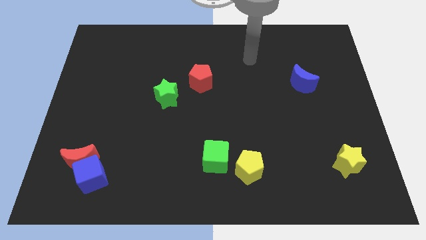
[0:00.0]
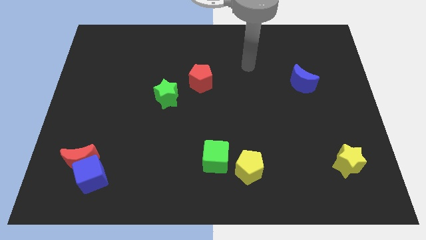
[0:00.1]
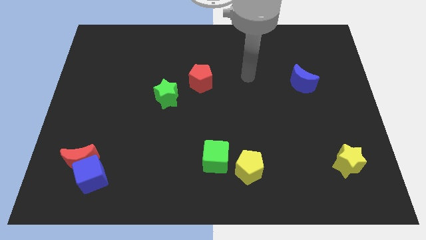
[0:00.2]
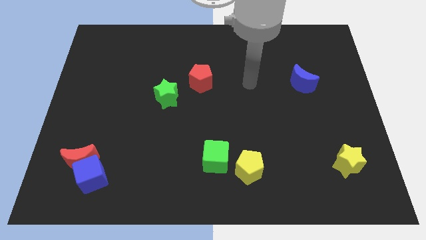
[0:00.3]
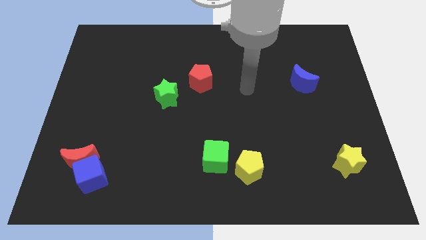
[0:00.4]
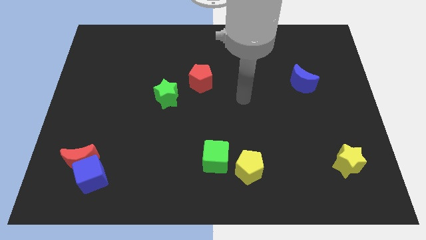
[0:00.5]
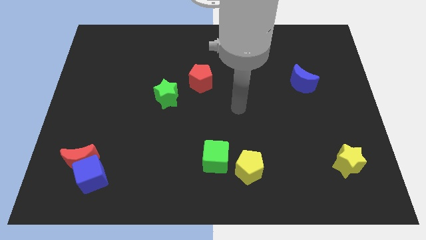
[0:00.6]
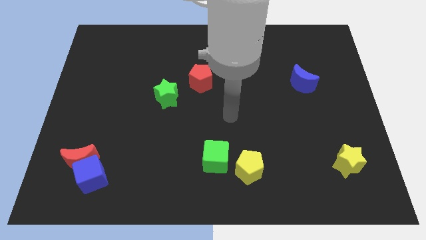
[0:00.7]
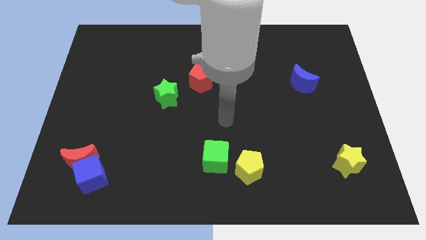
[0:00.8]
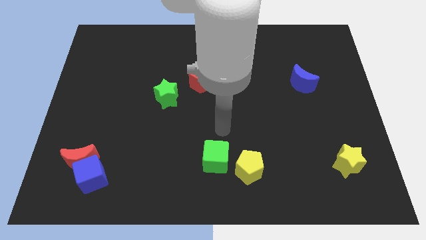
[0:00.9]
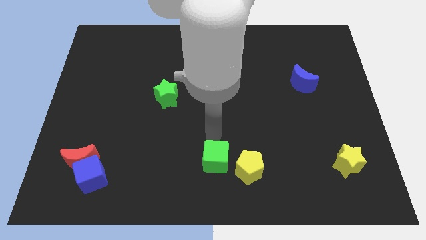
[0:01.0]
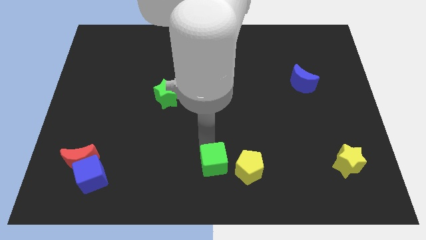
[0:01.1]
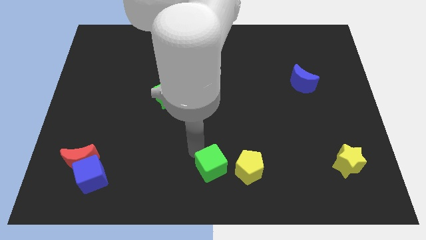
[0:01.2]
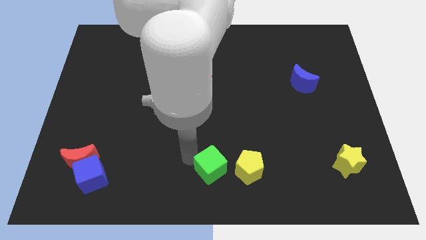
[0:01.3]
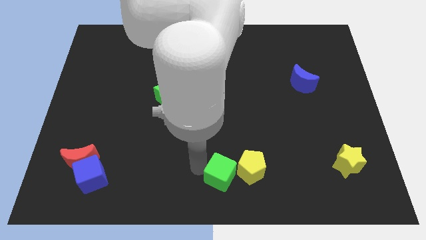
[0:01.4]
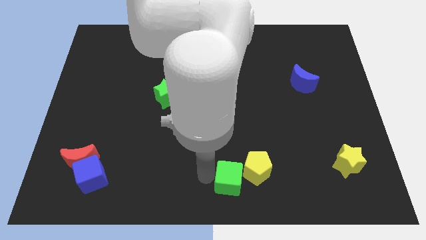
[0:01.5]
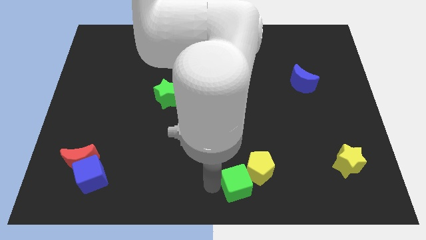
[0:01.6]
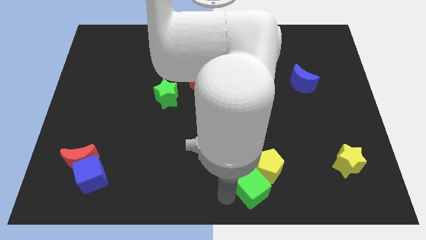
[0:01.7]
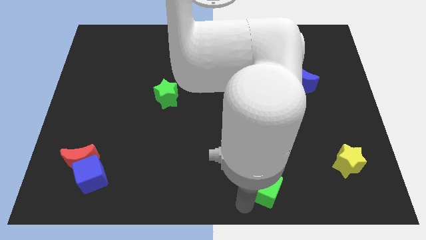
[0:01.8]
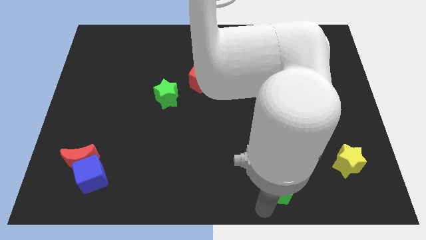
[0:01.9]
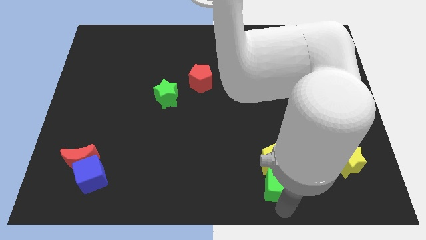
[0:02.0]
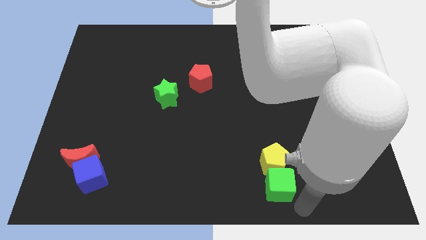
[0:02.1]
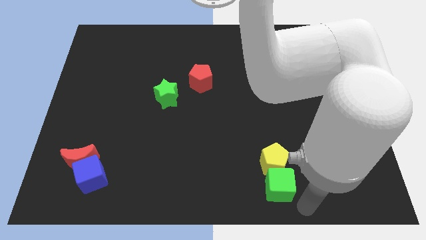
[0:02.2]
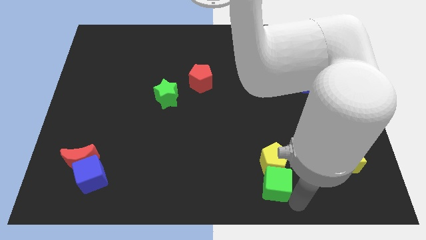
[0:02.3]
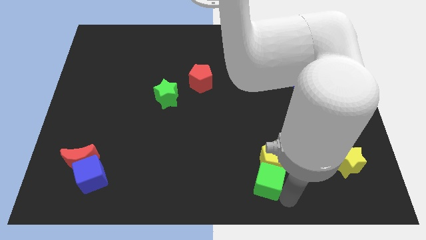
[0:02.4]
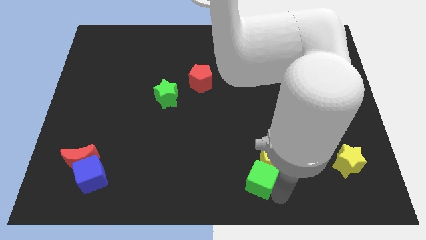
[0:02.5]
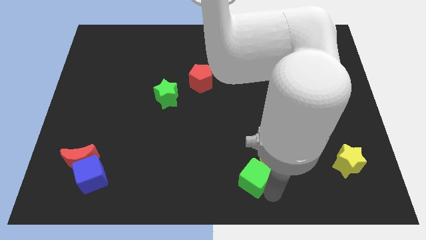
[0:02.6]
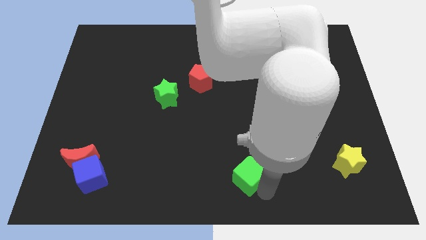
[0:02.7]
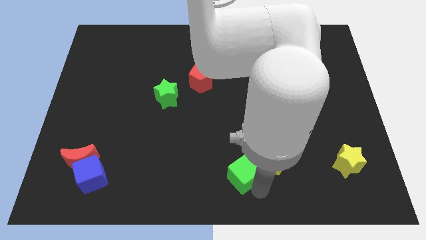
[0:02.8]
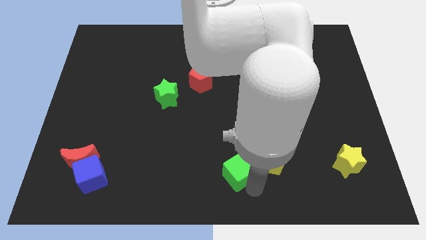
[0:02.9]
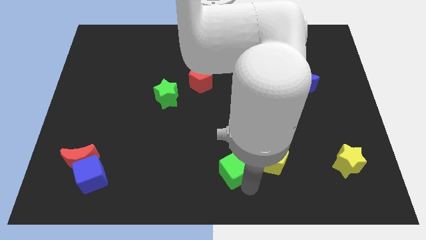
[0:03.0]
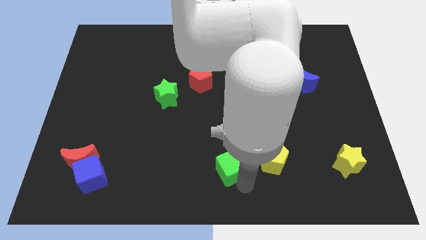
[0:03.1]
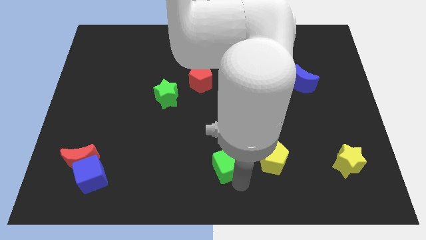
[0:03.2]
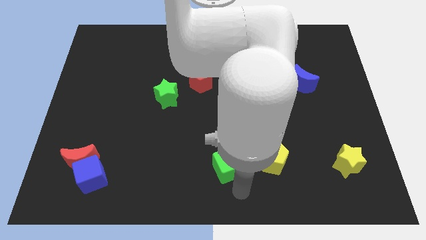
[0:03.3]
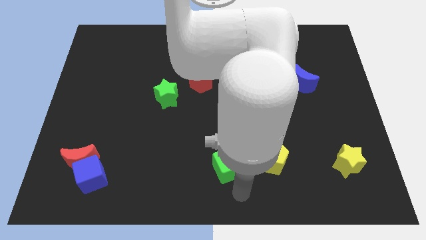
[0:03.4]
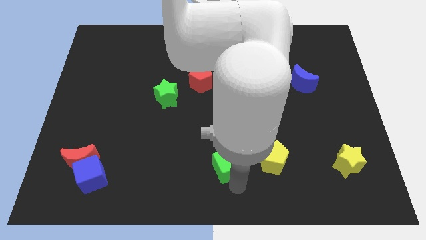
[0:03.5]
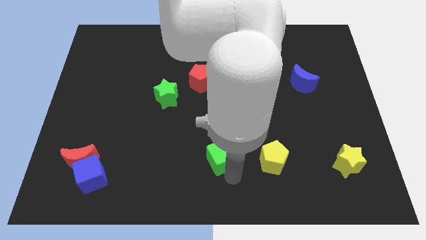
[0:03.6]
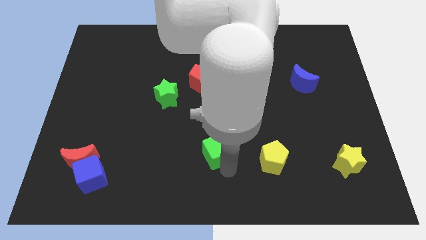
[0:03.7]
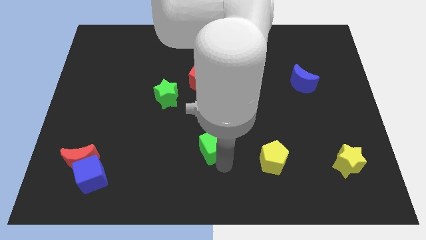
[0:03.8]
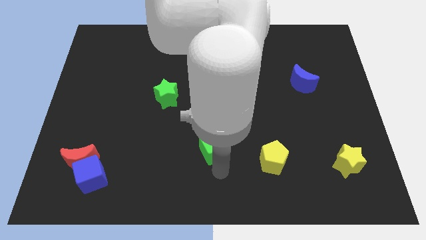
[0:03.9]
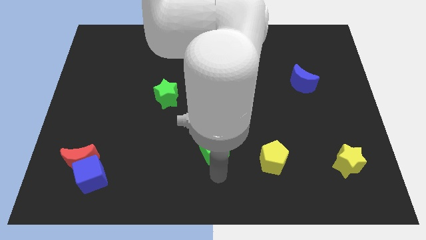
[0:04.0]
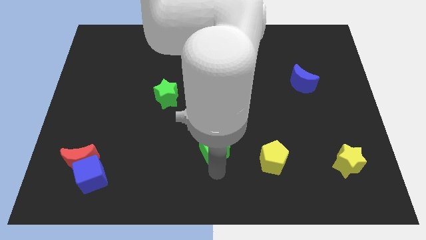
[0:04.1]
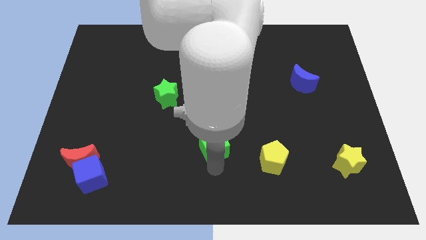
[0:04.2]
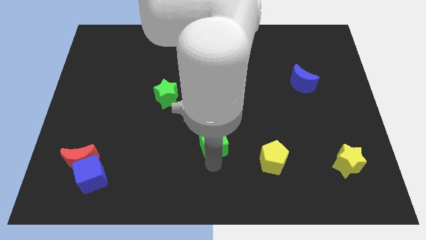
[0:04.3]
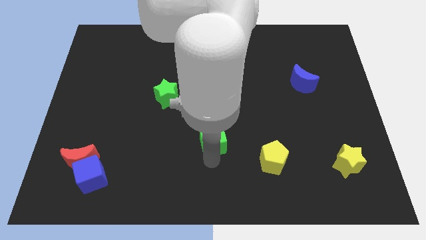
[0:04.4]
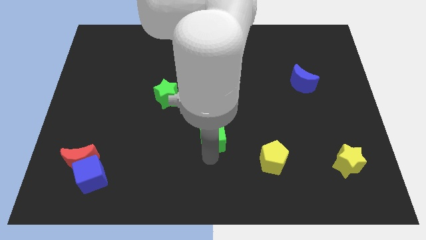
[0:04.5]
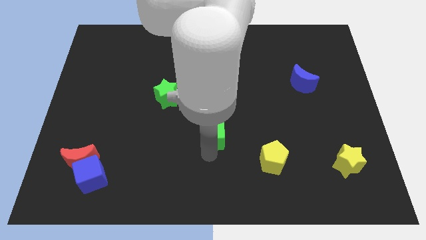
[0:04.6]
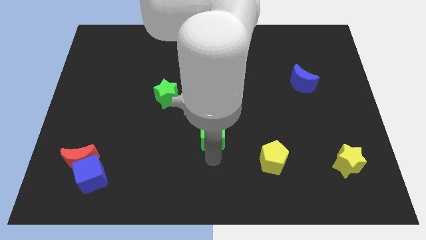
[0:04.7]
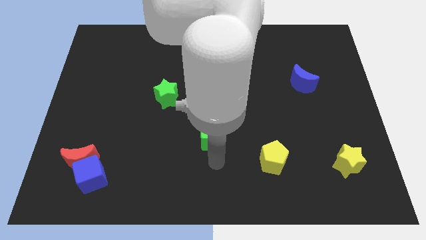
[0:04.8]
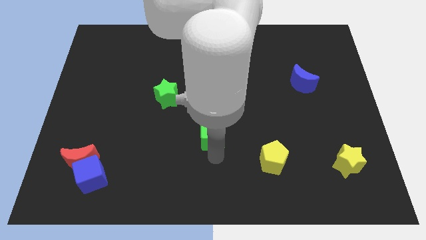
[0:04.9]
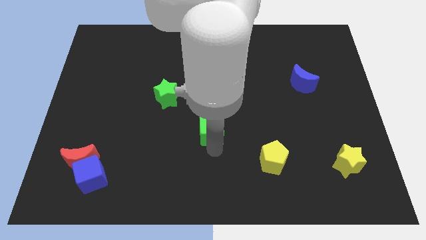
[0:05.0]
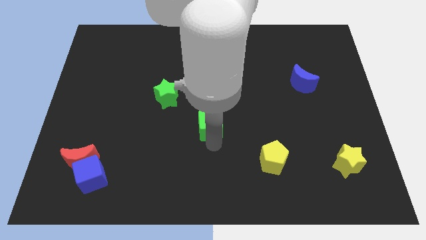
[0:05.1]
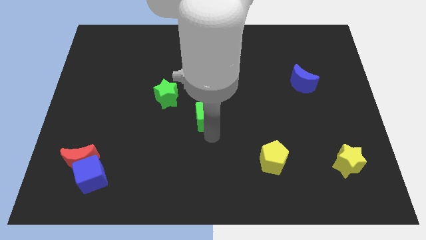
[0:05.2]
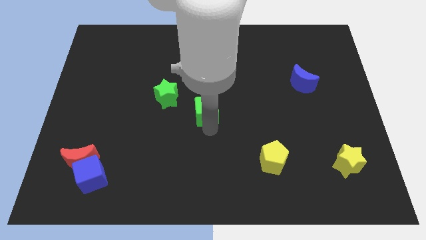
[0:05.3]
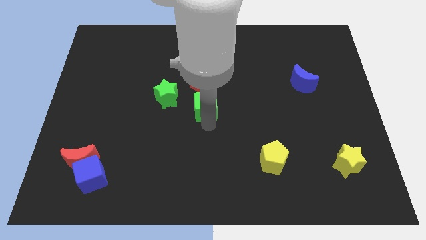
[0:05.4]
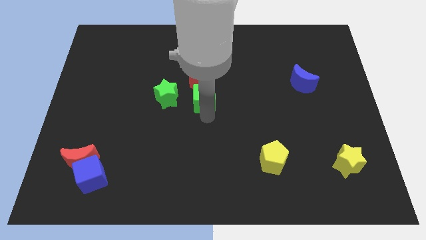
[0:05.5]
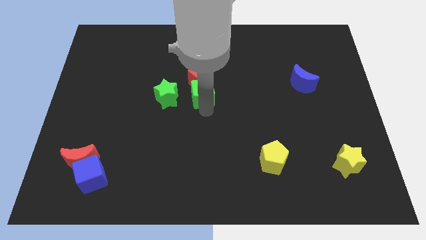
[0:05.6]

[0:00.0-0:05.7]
move the green cube next to the red pentagon
